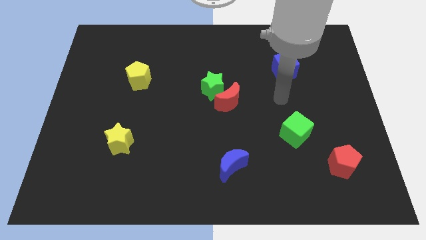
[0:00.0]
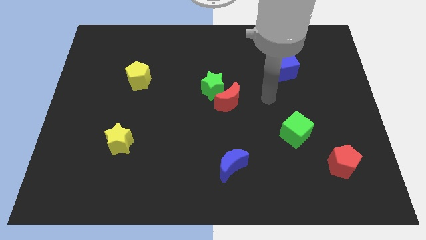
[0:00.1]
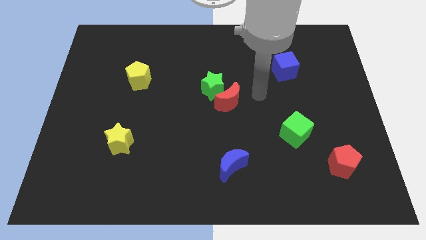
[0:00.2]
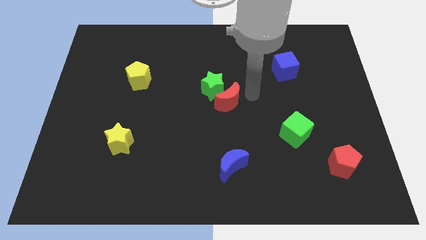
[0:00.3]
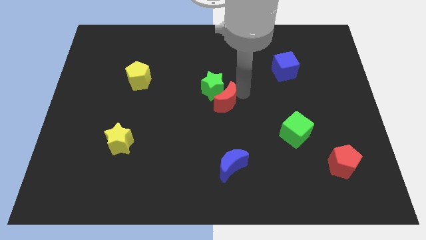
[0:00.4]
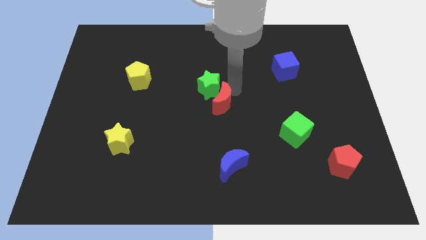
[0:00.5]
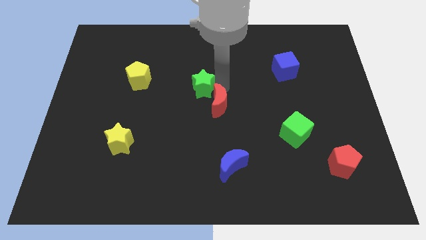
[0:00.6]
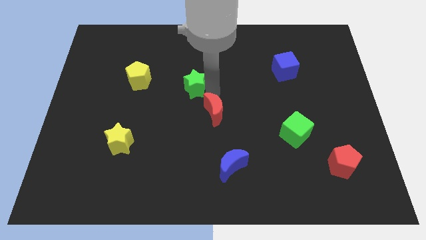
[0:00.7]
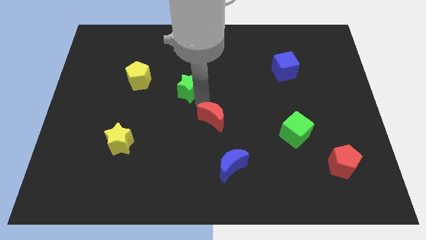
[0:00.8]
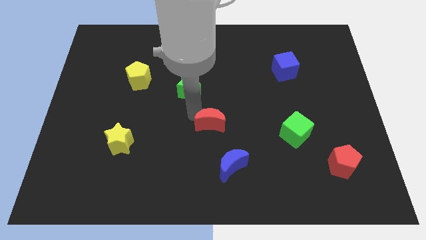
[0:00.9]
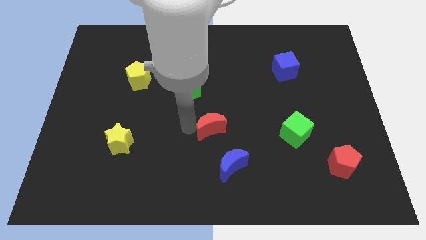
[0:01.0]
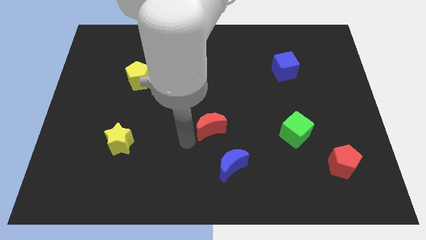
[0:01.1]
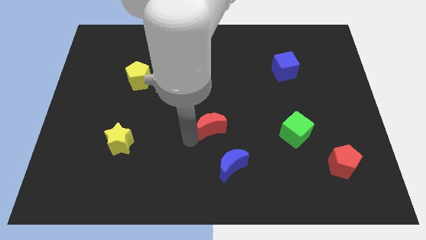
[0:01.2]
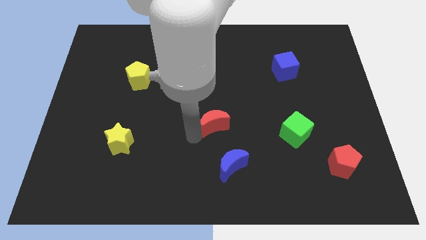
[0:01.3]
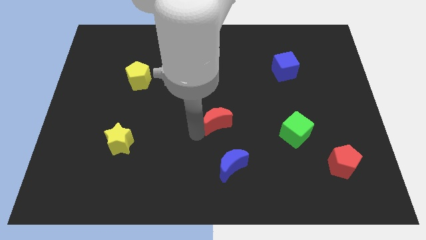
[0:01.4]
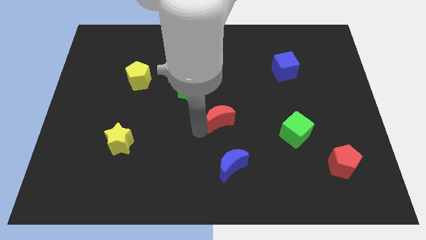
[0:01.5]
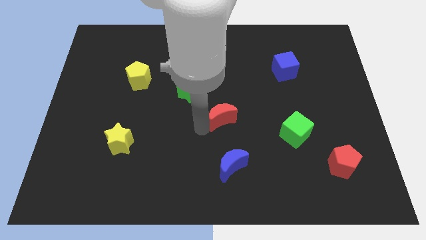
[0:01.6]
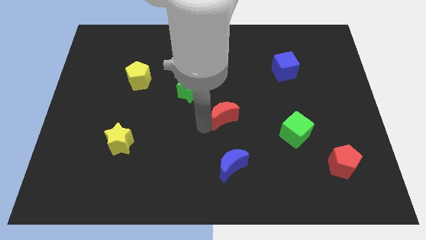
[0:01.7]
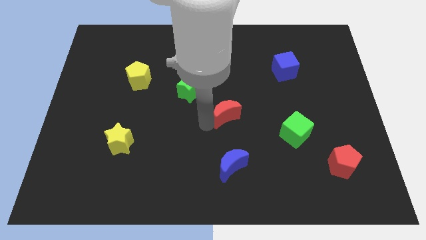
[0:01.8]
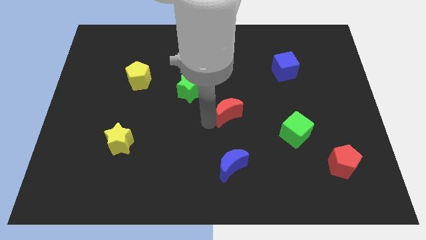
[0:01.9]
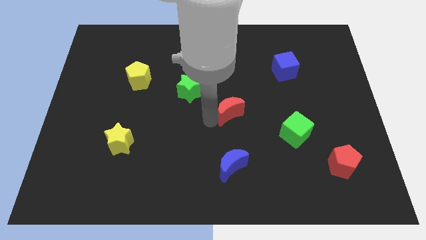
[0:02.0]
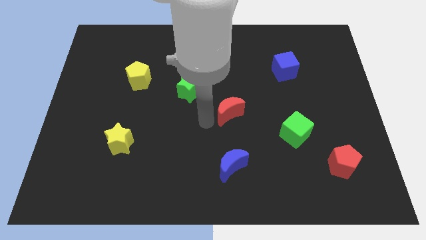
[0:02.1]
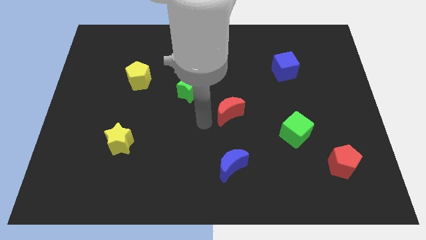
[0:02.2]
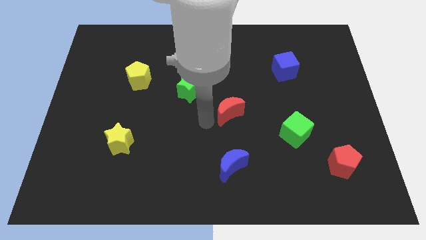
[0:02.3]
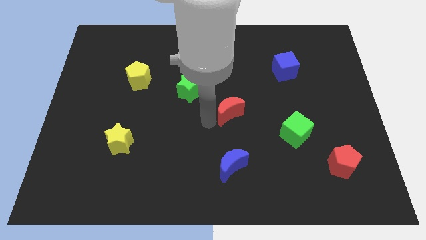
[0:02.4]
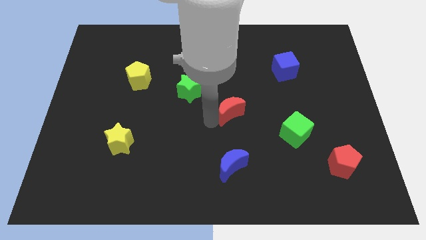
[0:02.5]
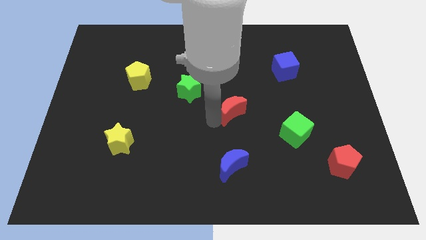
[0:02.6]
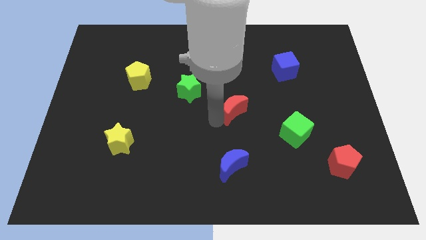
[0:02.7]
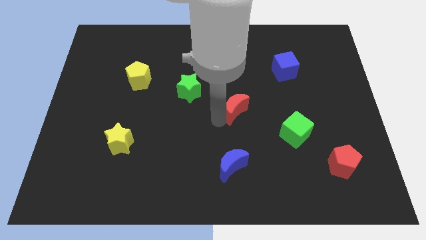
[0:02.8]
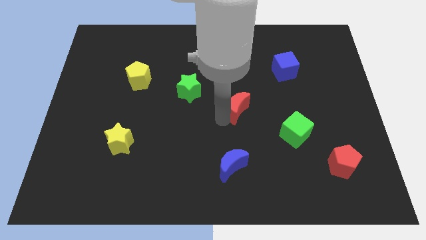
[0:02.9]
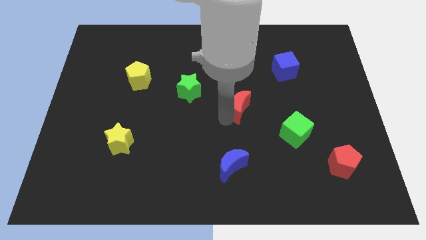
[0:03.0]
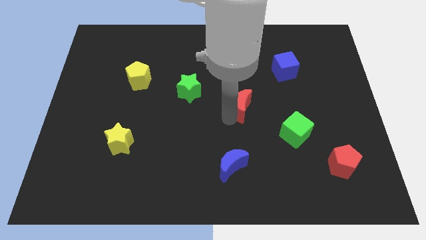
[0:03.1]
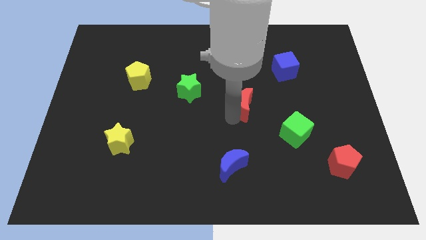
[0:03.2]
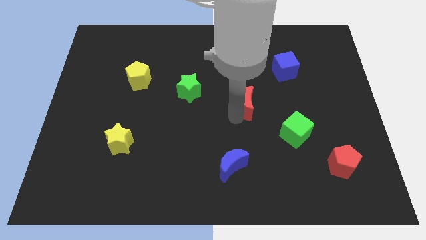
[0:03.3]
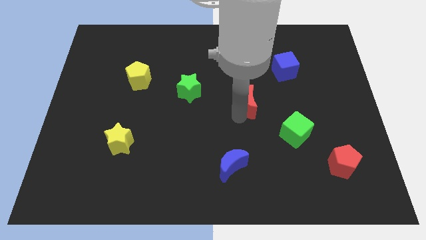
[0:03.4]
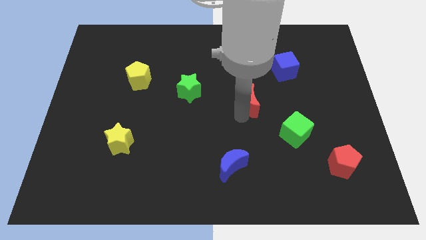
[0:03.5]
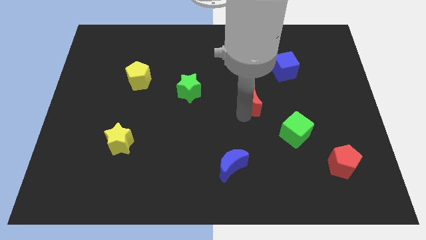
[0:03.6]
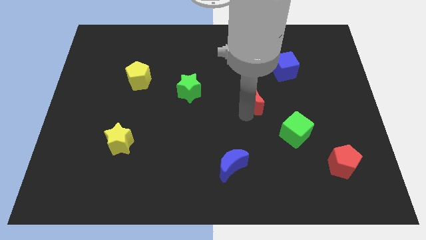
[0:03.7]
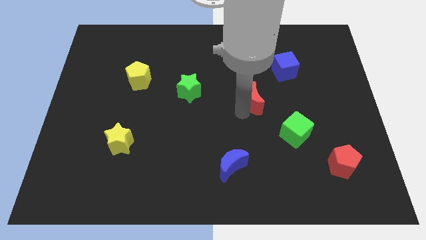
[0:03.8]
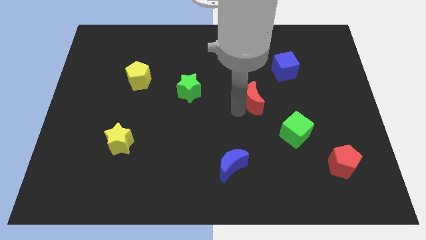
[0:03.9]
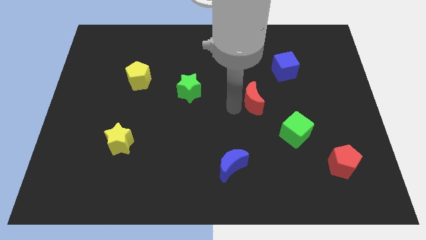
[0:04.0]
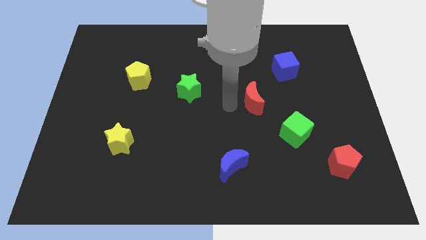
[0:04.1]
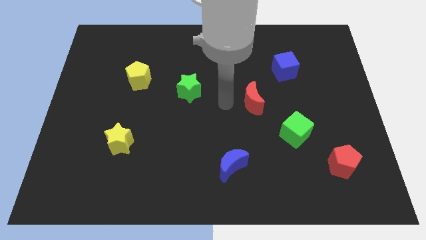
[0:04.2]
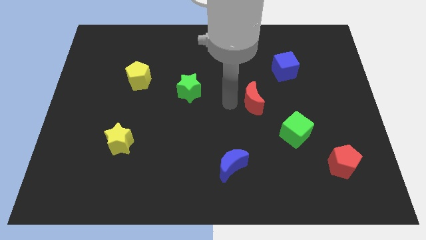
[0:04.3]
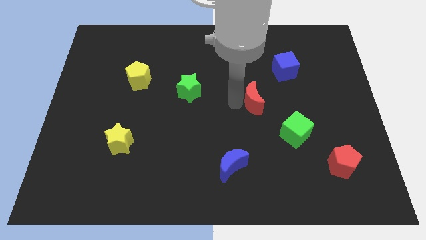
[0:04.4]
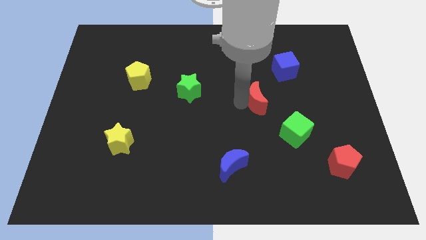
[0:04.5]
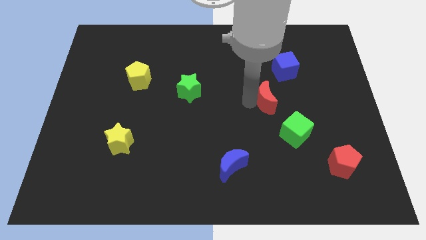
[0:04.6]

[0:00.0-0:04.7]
slide the red moon right somewhat

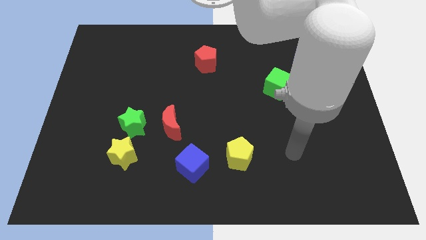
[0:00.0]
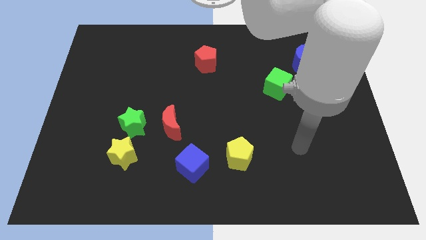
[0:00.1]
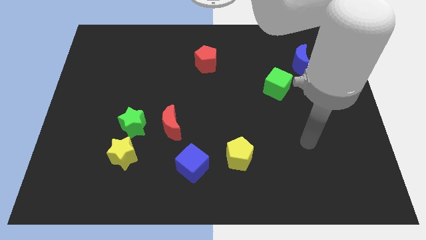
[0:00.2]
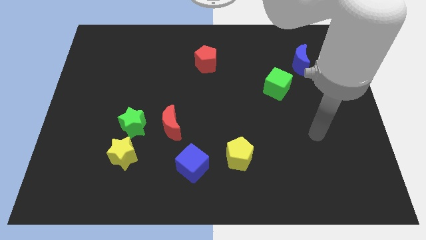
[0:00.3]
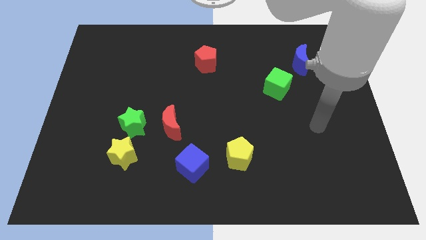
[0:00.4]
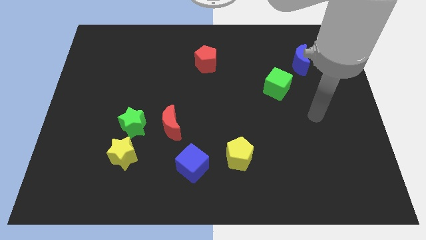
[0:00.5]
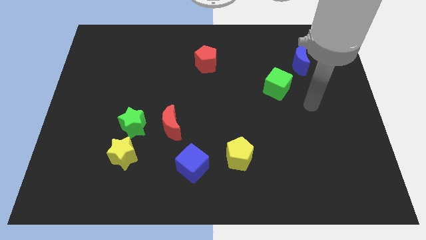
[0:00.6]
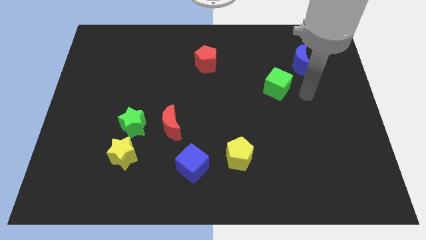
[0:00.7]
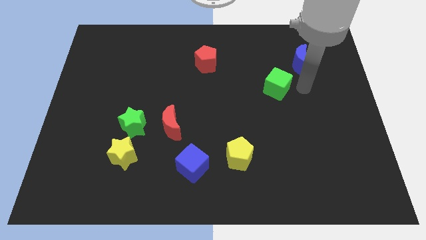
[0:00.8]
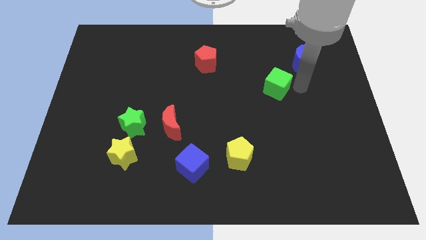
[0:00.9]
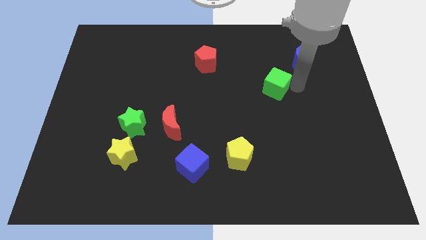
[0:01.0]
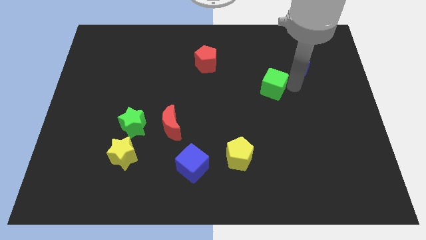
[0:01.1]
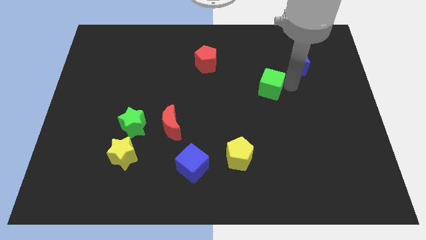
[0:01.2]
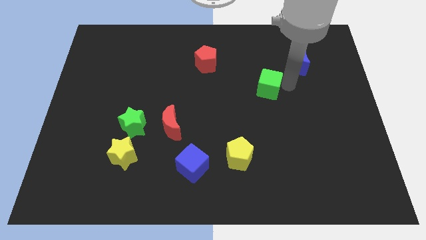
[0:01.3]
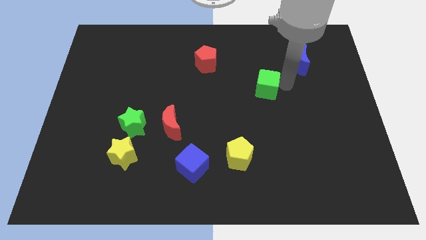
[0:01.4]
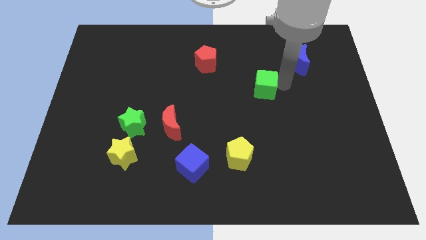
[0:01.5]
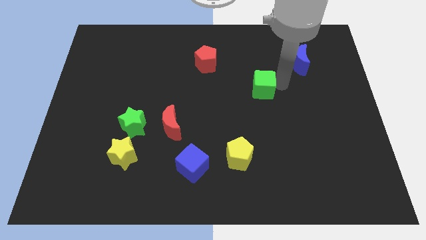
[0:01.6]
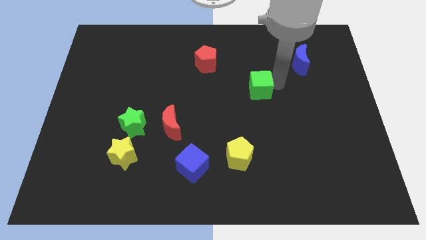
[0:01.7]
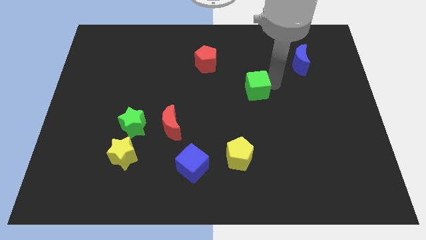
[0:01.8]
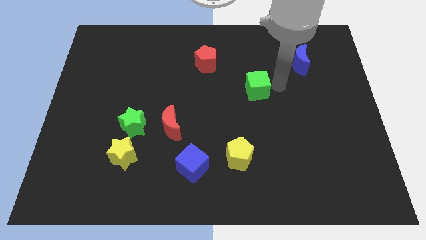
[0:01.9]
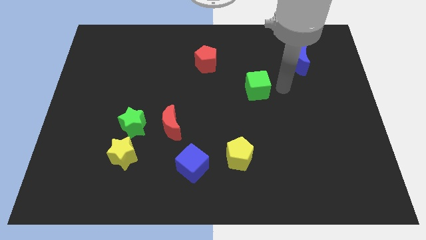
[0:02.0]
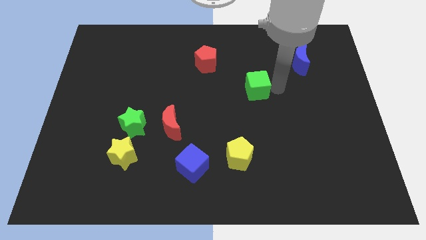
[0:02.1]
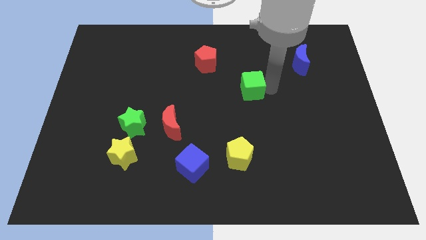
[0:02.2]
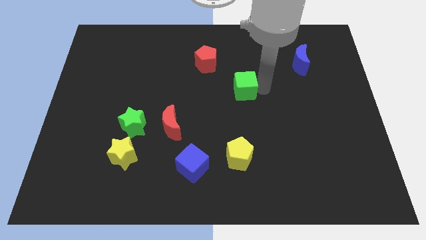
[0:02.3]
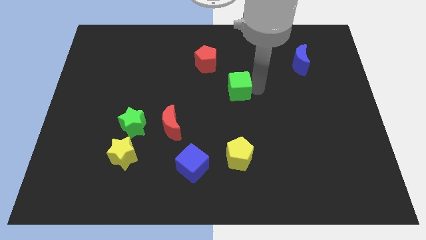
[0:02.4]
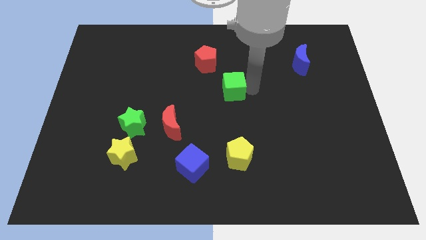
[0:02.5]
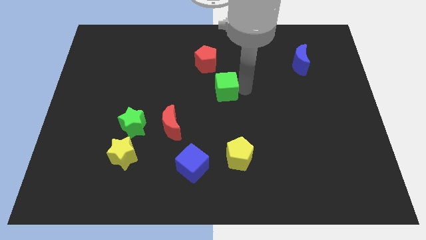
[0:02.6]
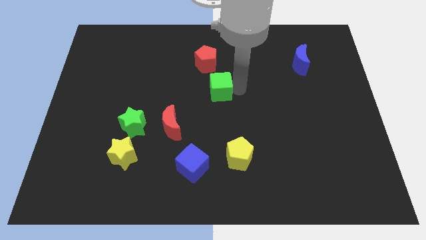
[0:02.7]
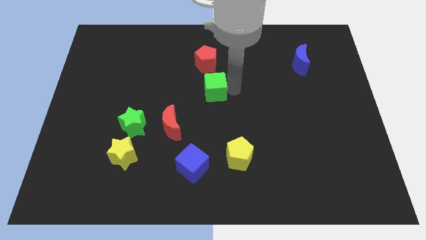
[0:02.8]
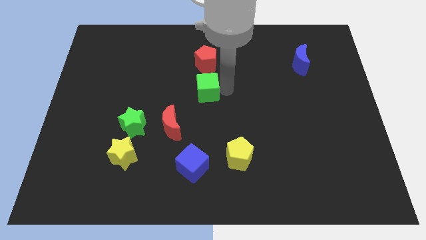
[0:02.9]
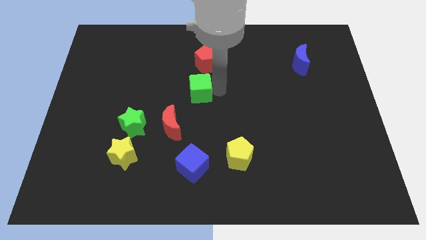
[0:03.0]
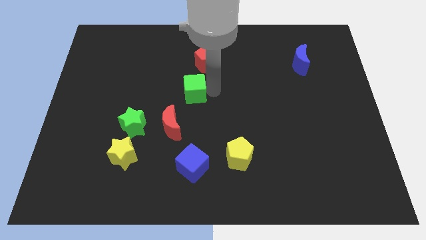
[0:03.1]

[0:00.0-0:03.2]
push the green cube to the left

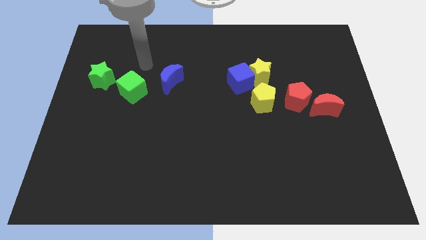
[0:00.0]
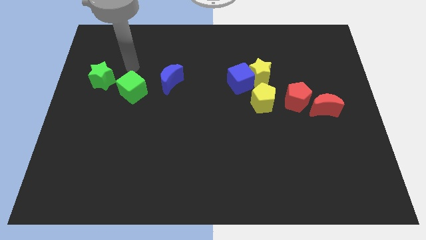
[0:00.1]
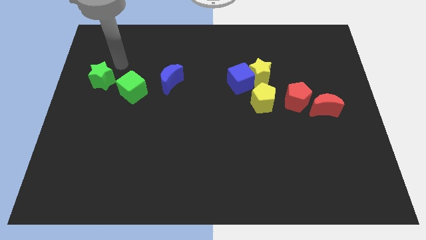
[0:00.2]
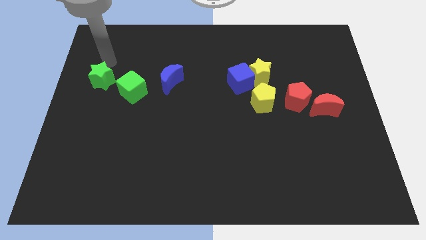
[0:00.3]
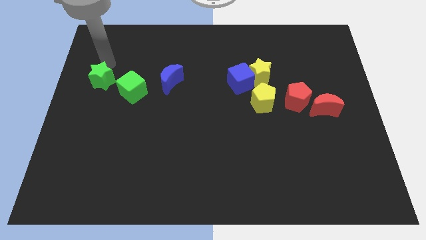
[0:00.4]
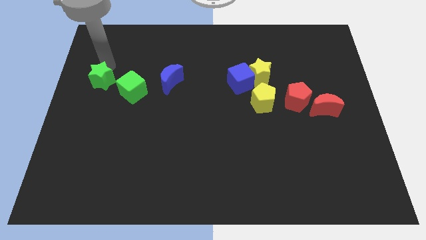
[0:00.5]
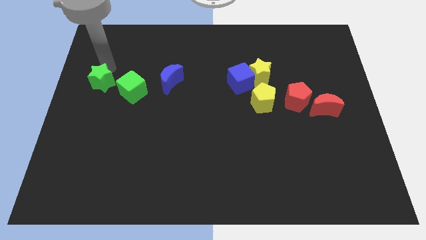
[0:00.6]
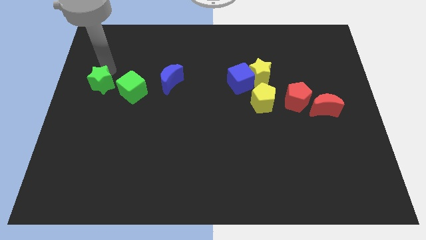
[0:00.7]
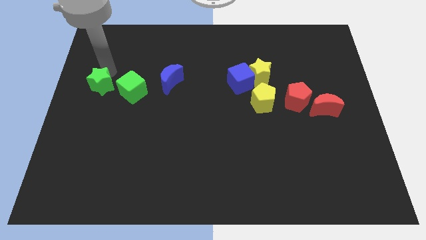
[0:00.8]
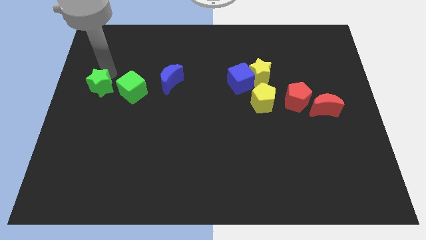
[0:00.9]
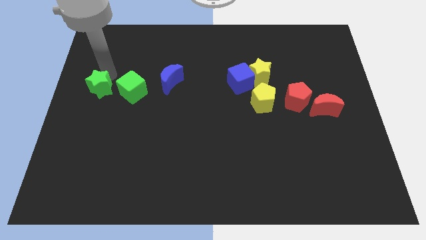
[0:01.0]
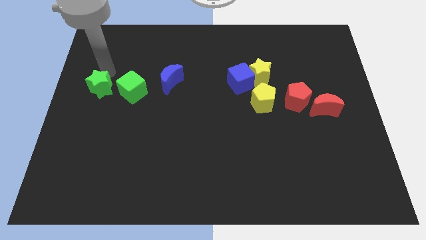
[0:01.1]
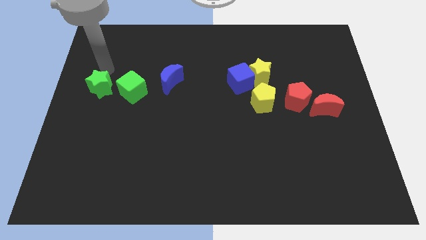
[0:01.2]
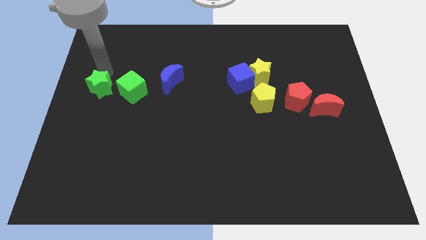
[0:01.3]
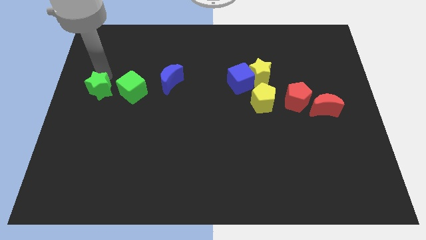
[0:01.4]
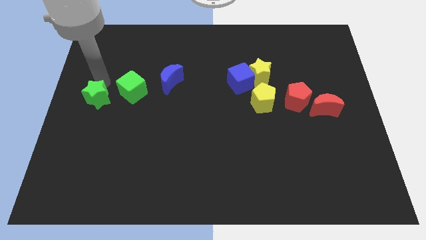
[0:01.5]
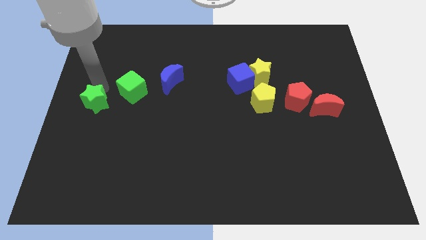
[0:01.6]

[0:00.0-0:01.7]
slightly push the green star downwards
